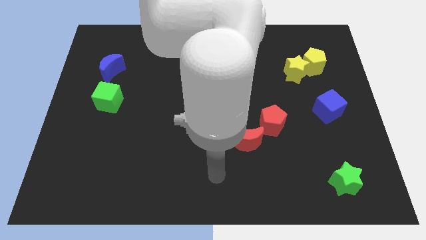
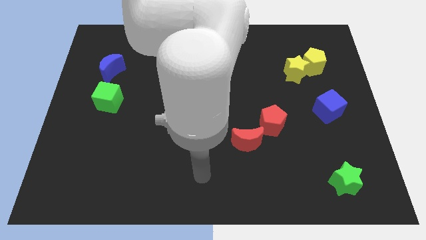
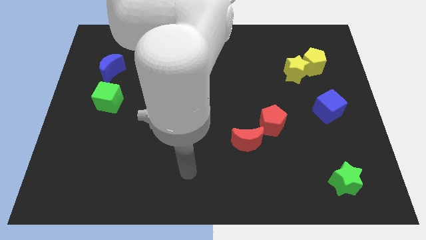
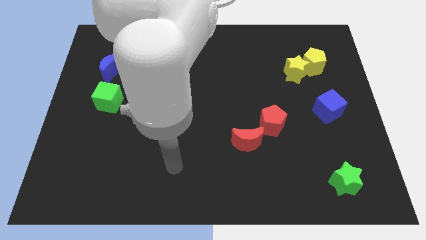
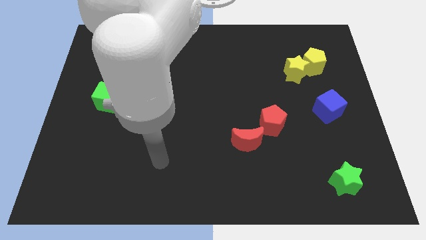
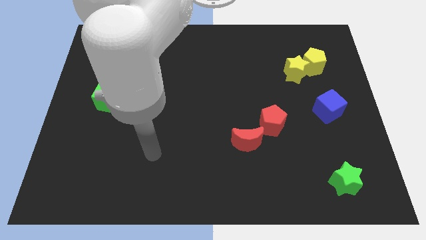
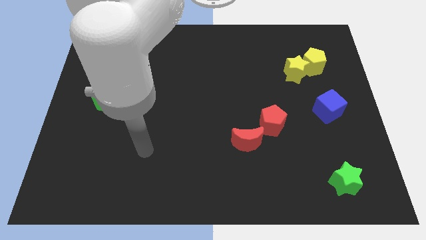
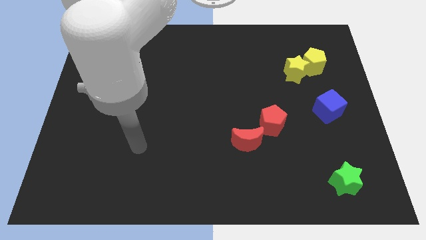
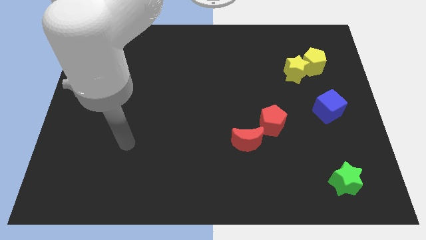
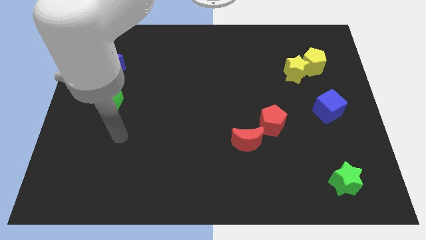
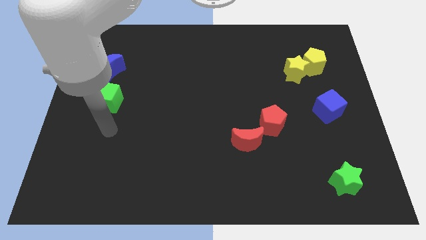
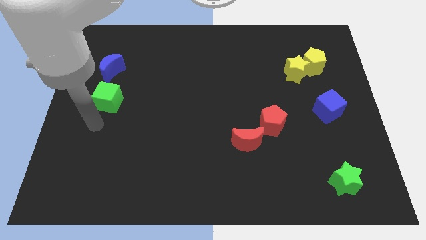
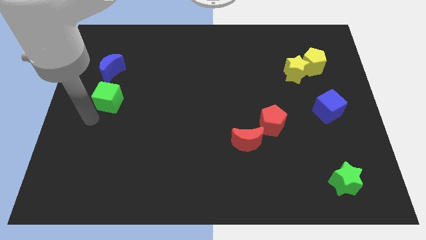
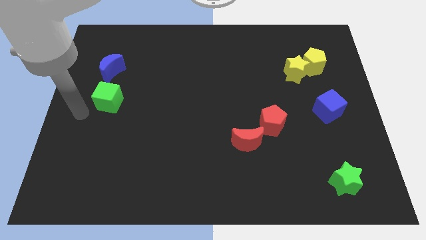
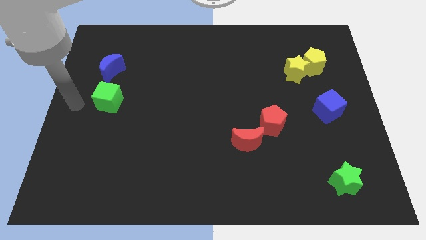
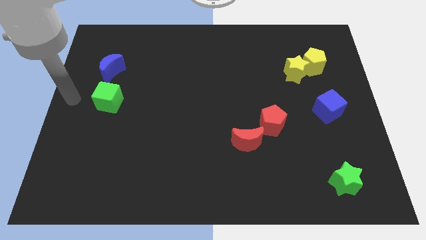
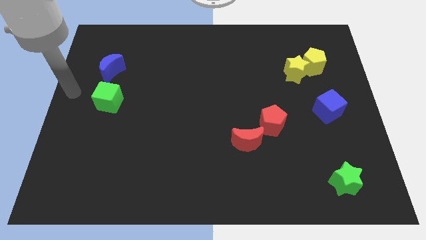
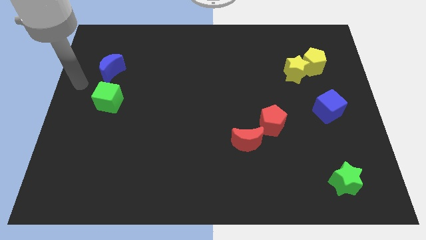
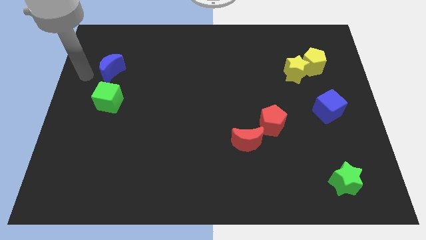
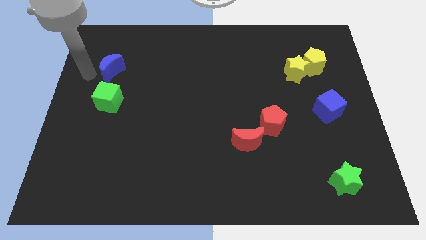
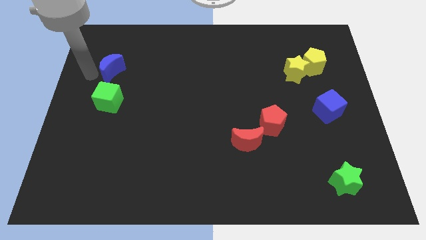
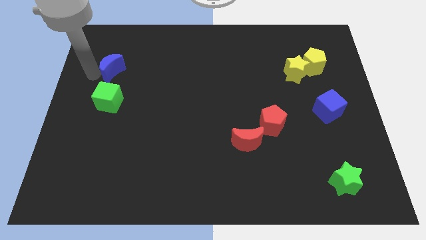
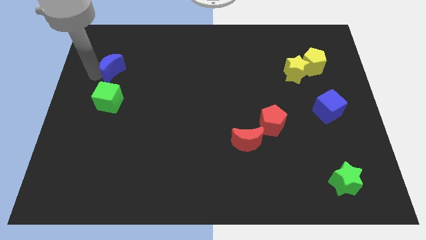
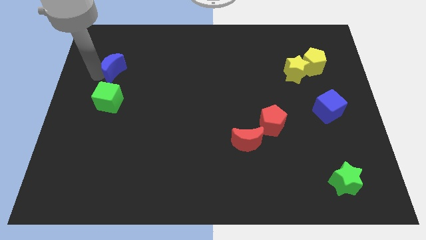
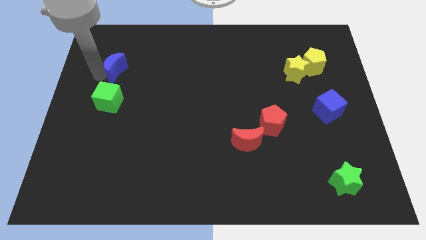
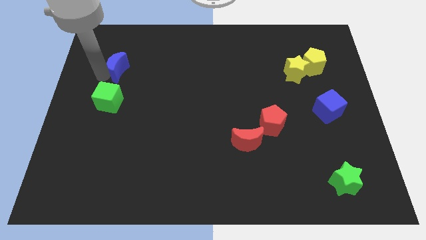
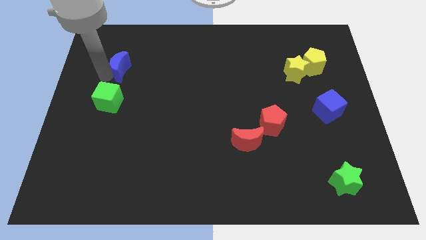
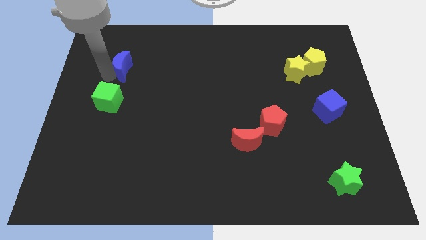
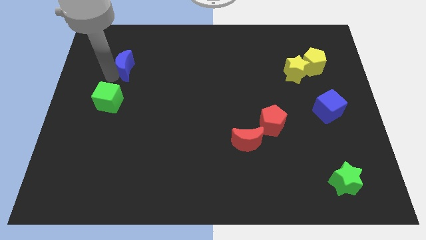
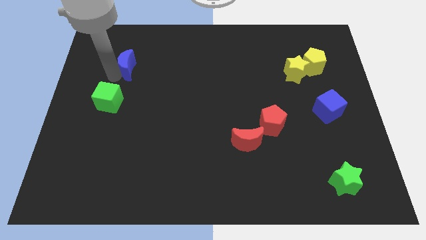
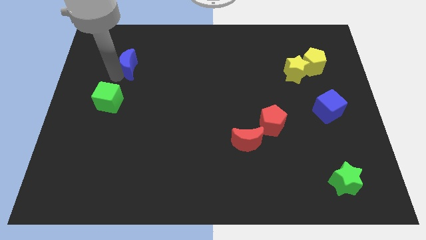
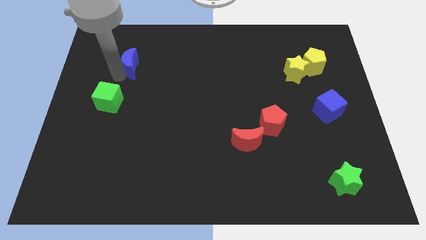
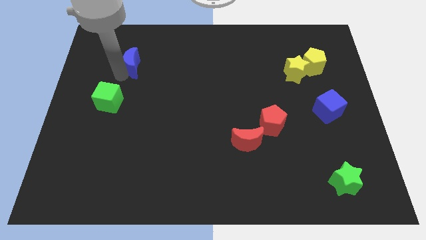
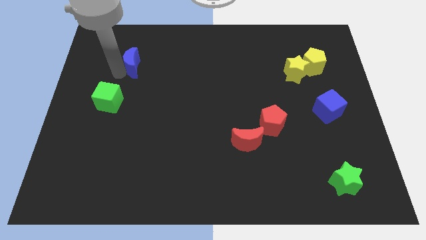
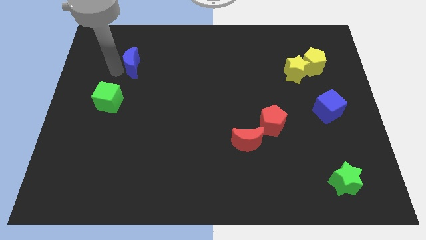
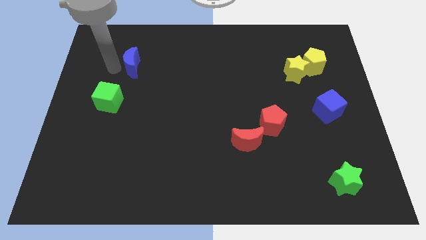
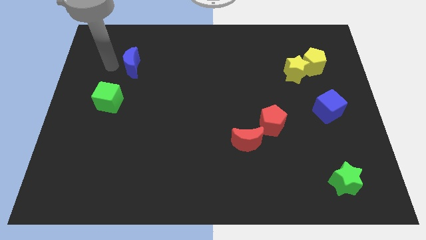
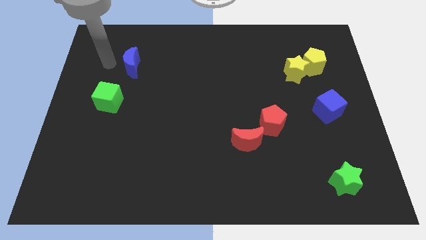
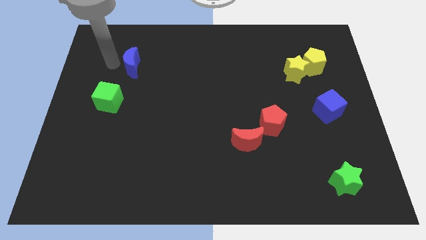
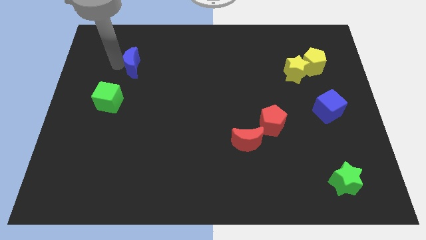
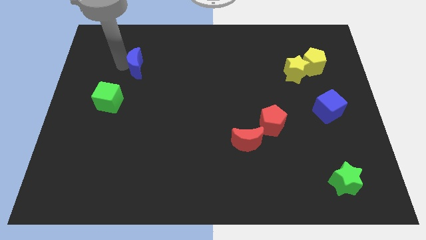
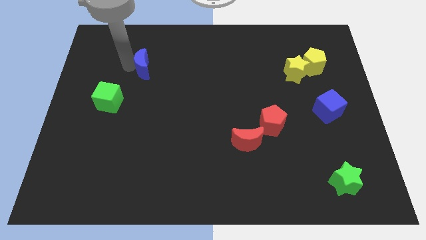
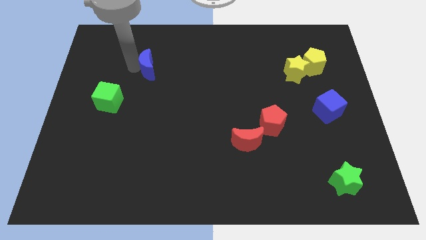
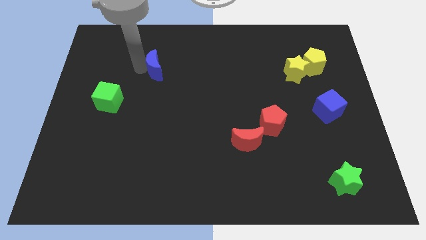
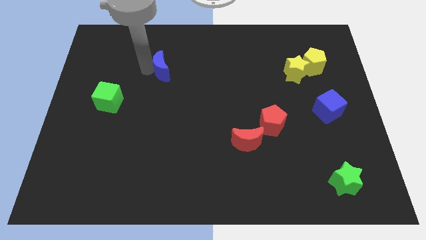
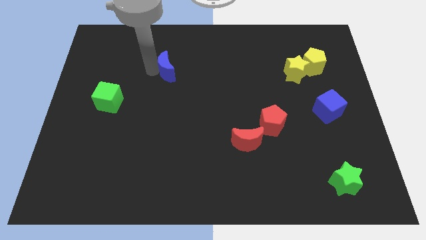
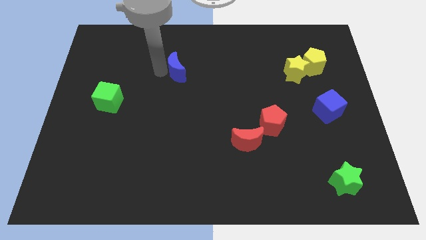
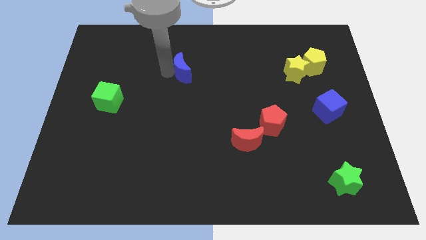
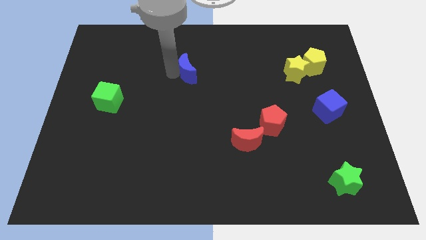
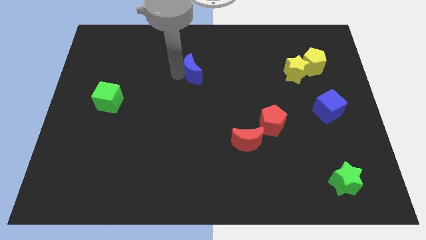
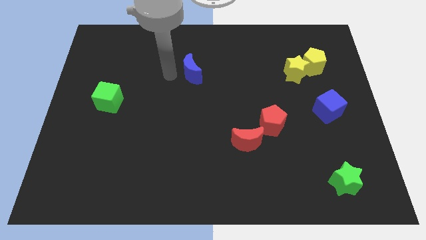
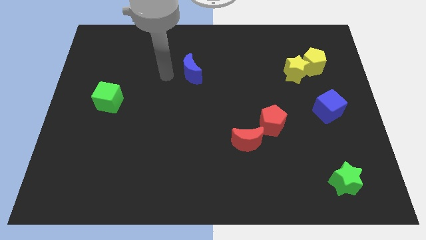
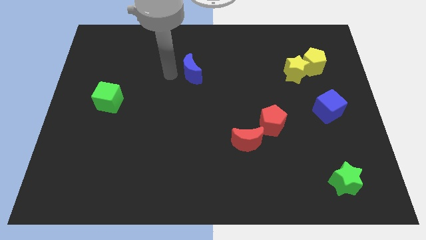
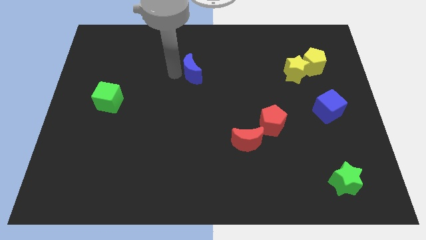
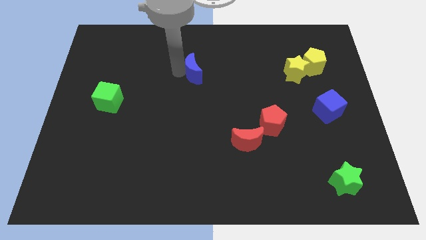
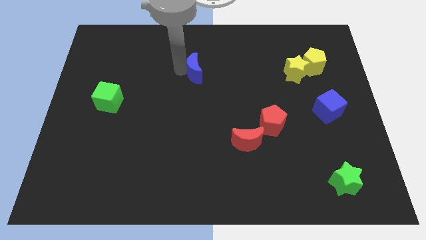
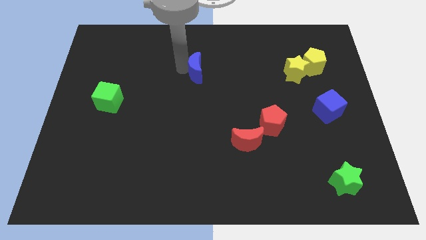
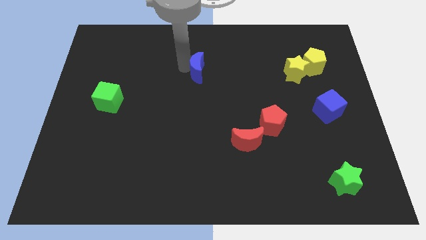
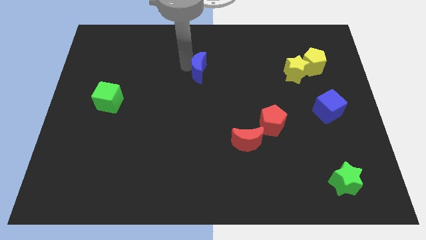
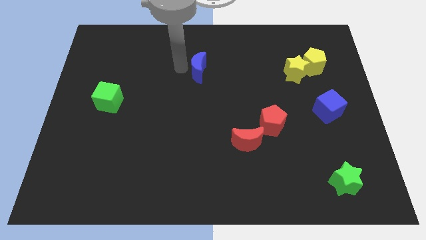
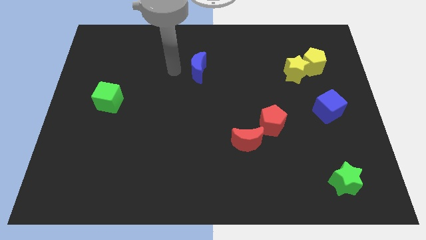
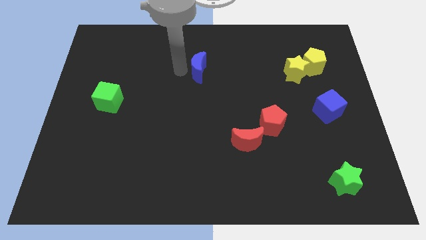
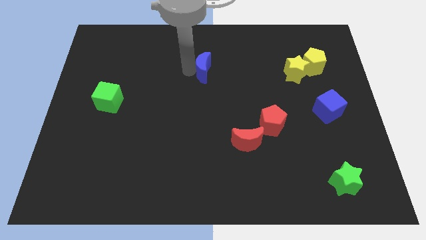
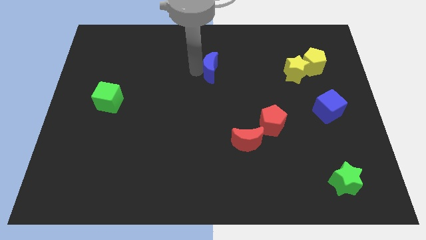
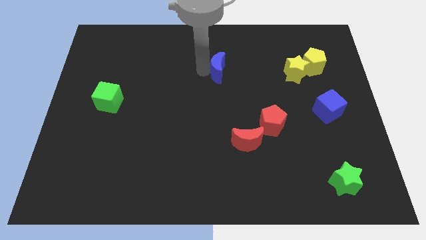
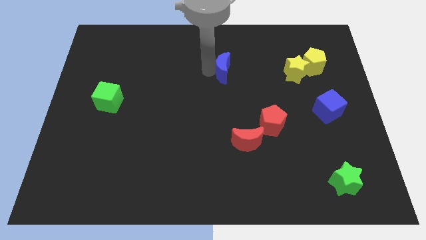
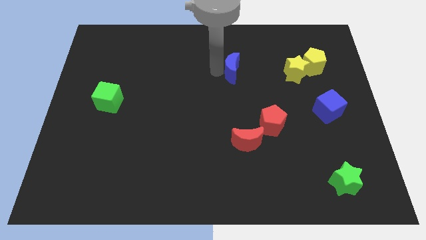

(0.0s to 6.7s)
slide the blue moon left of the yellow star

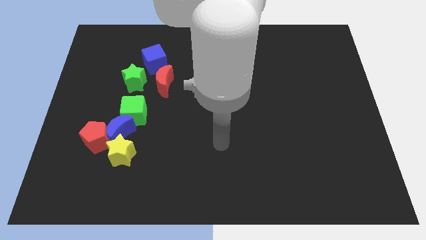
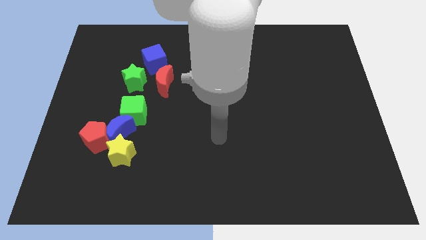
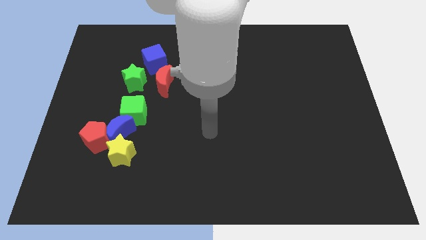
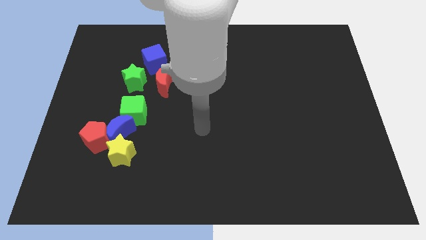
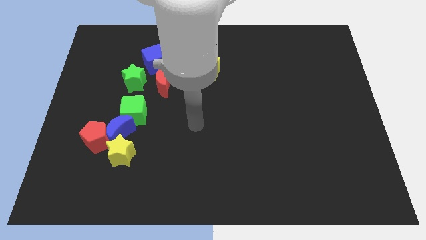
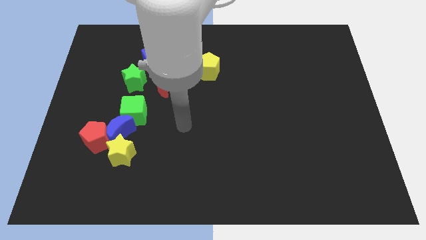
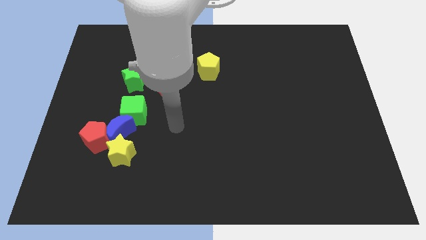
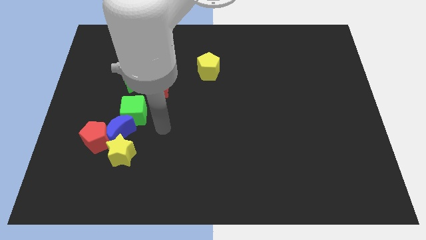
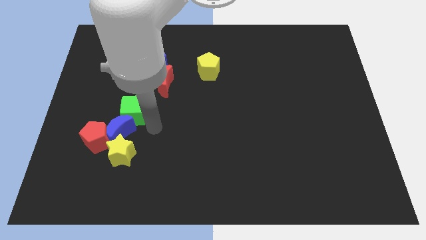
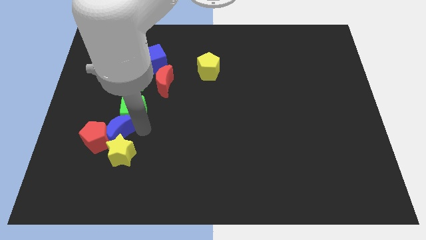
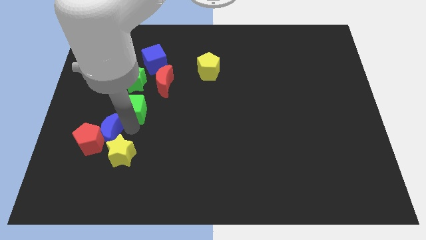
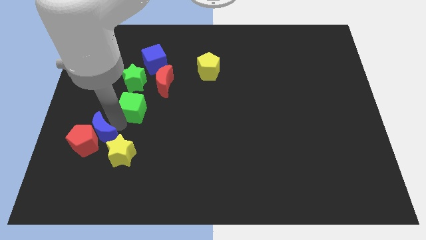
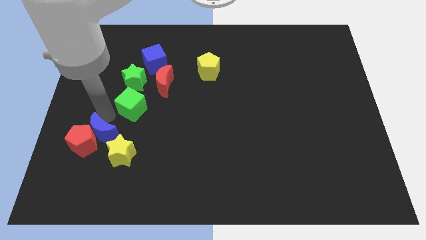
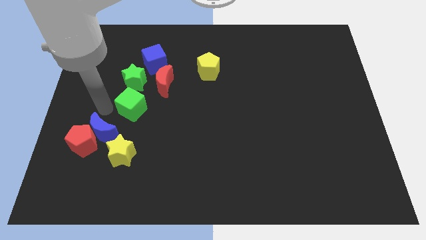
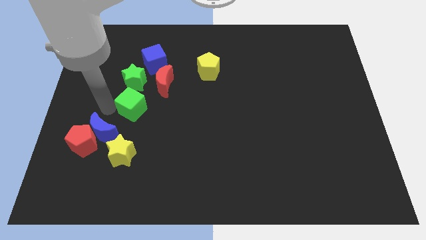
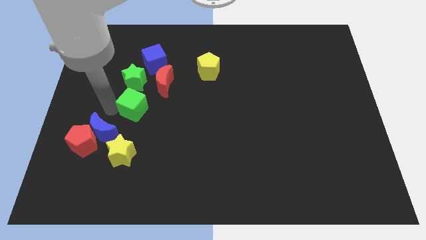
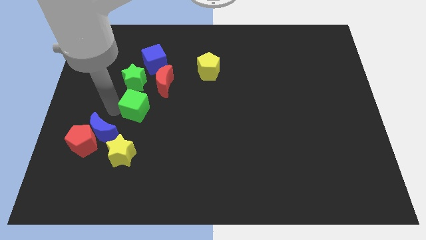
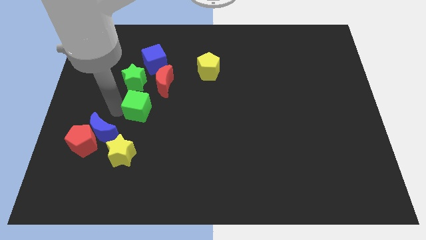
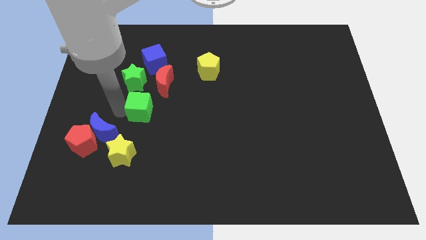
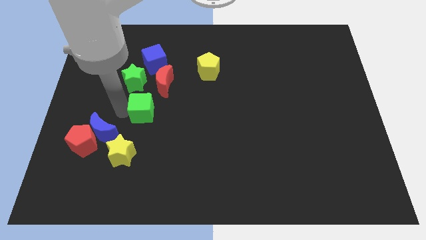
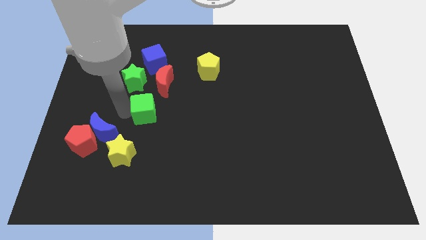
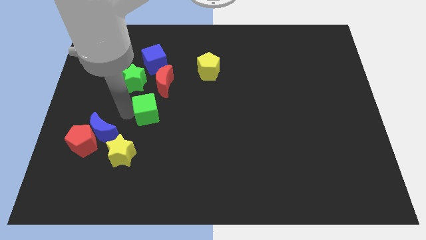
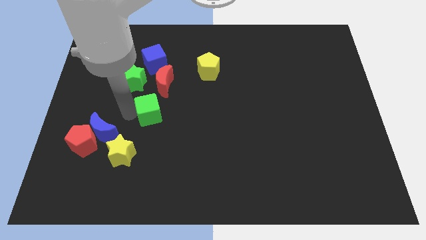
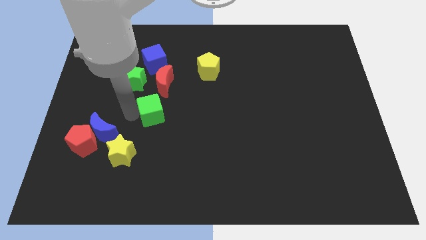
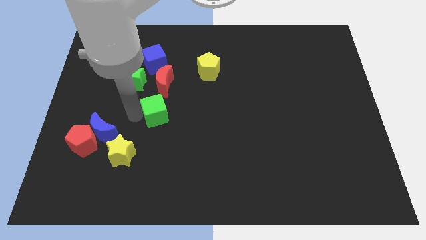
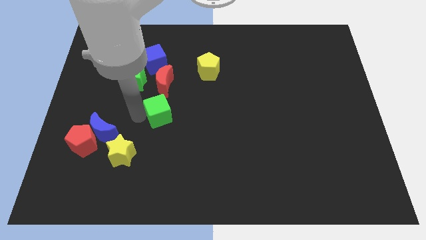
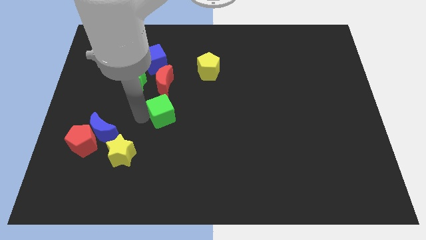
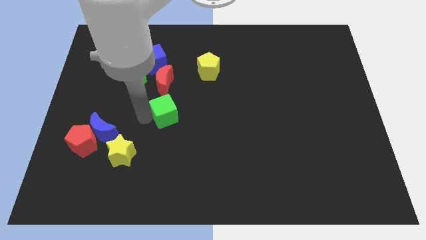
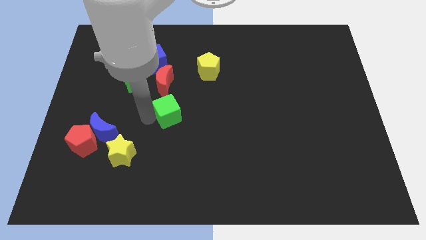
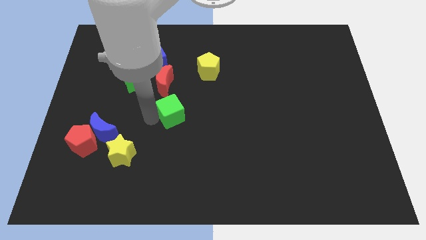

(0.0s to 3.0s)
put the green cube diagonally down and to the right of the red moon
